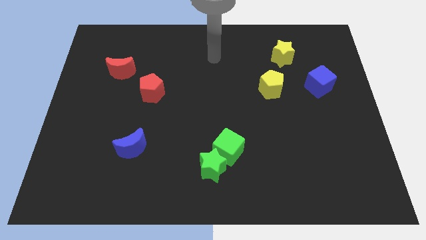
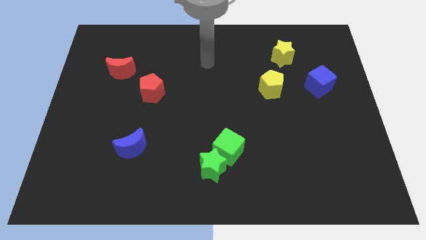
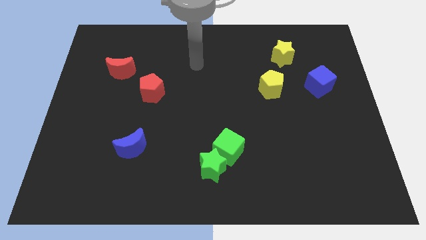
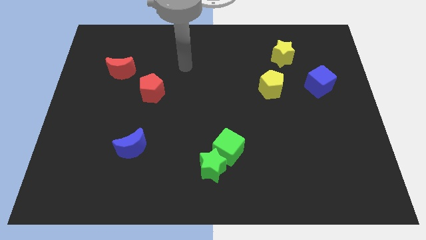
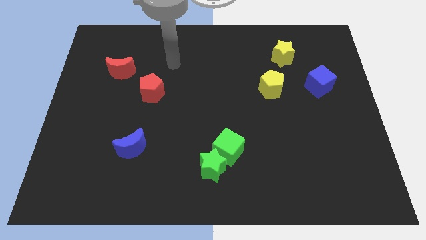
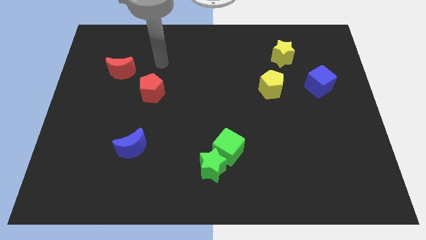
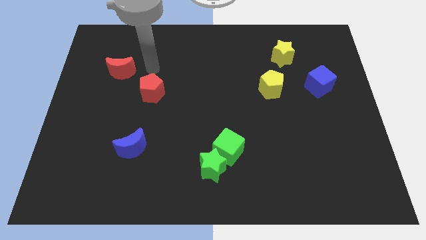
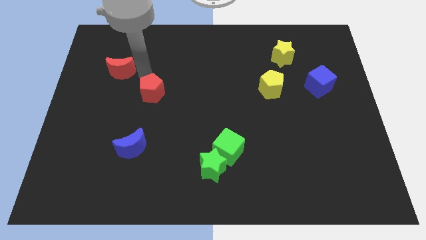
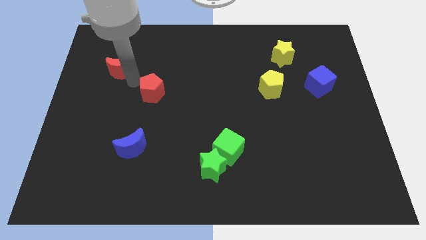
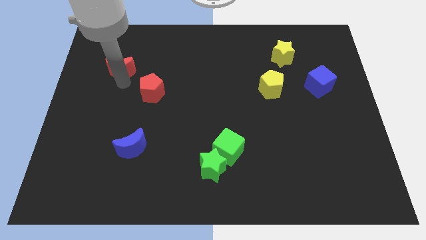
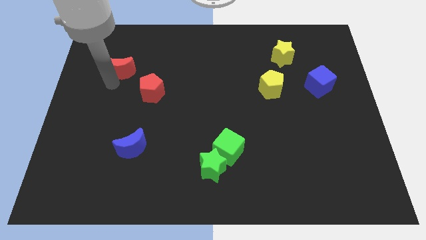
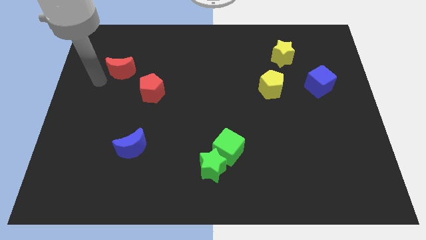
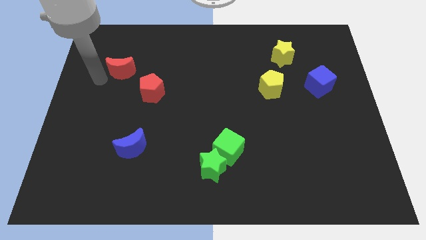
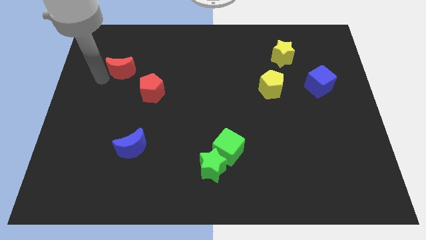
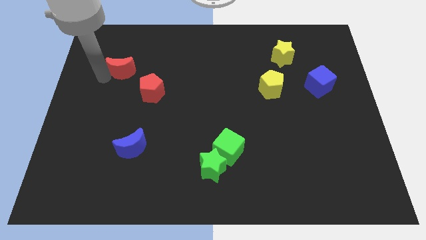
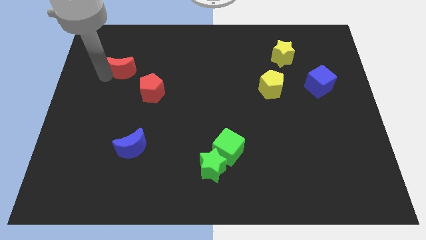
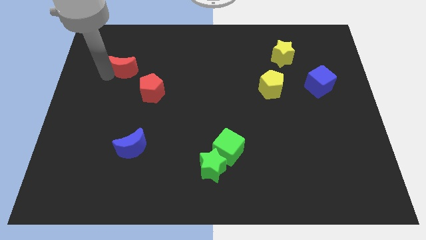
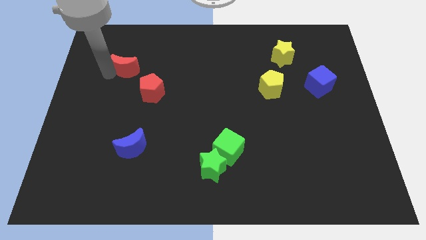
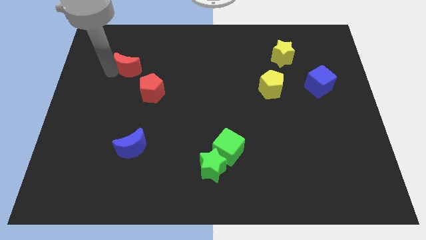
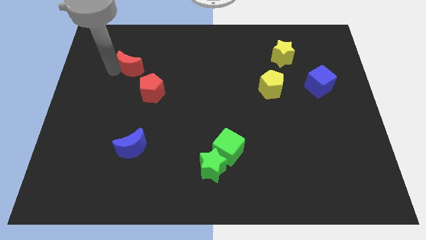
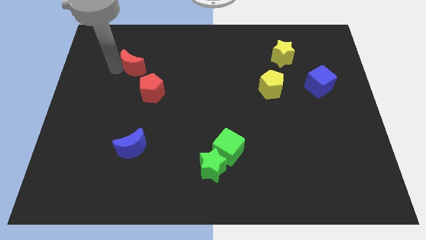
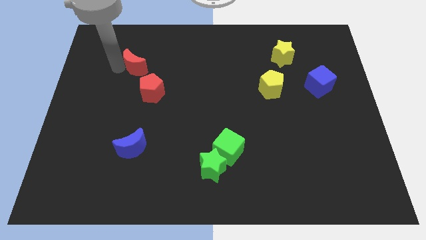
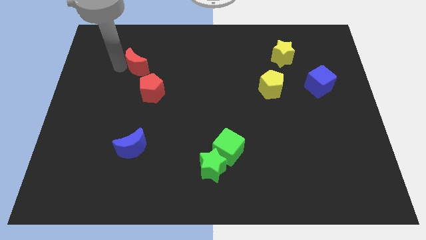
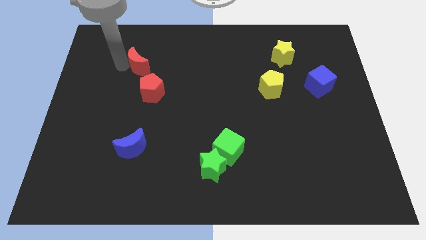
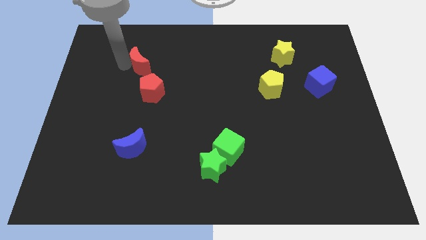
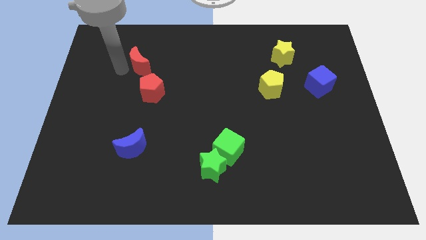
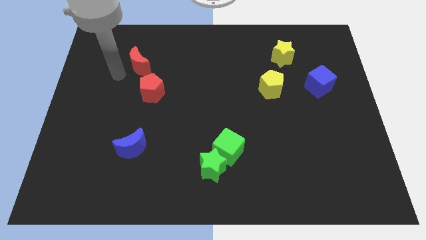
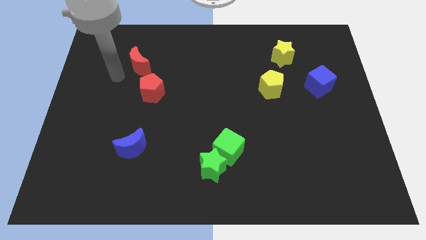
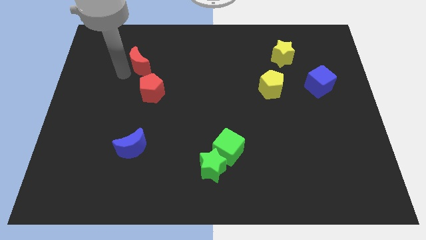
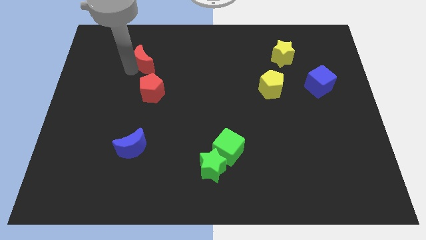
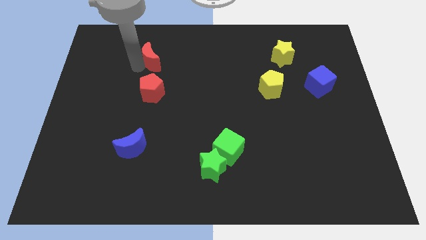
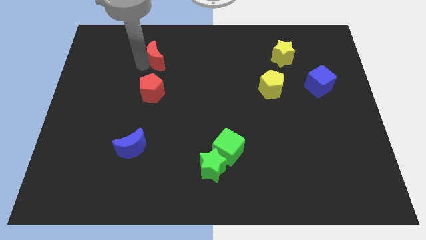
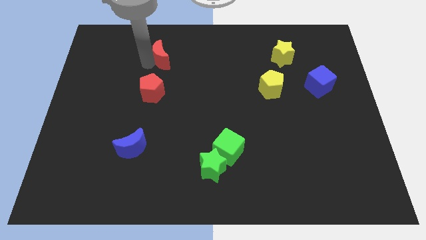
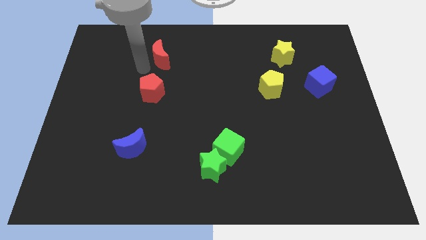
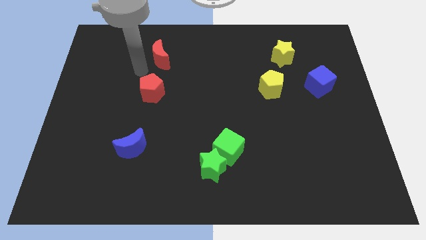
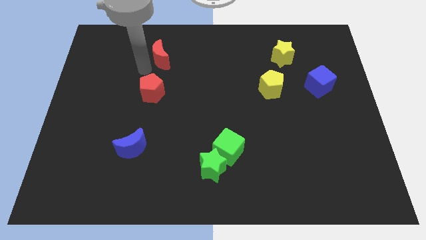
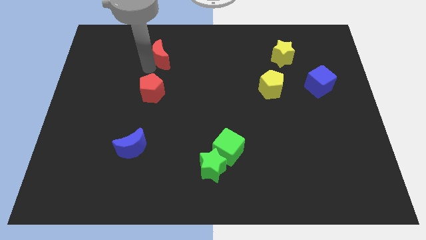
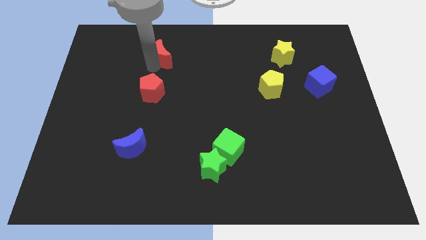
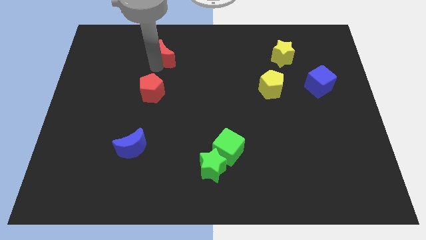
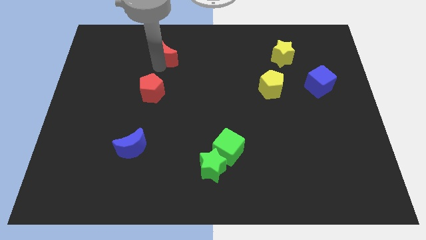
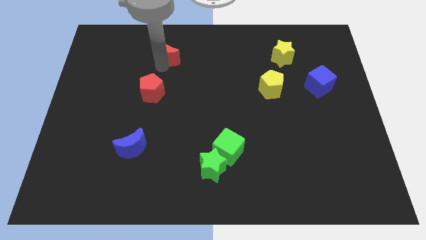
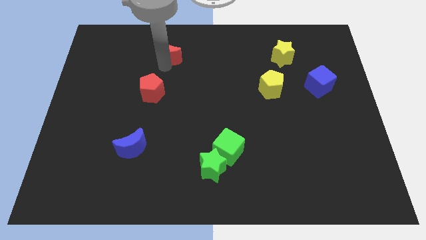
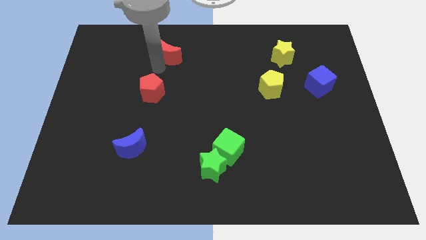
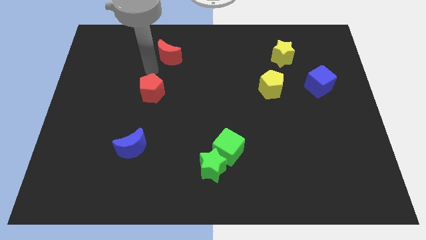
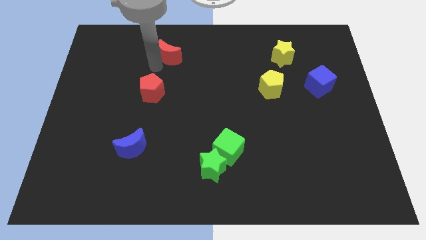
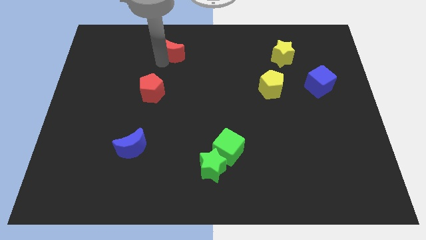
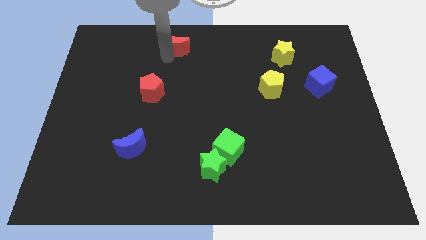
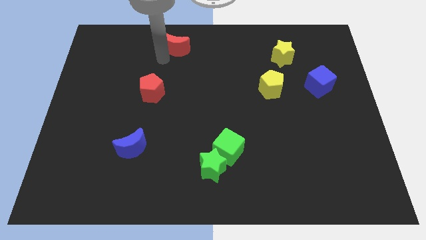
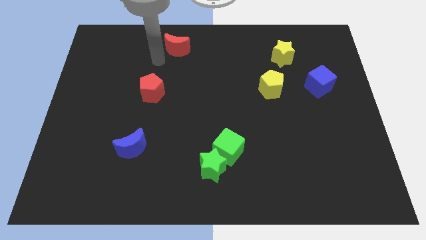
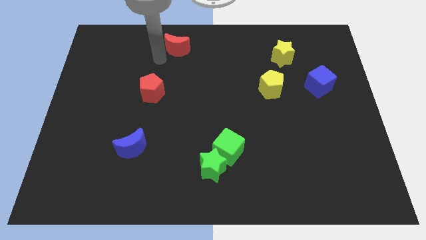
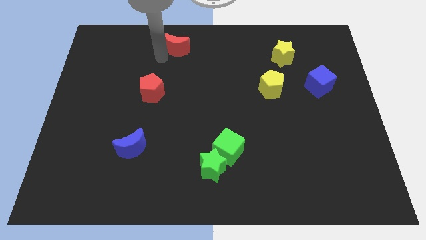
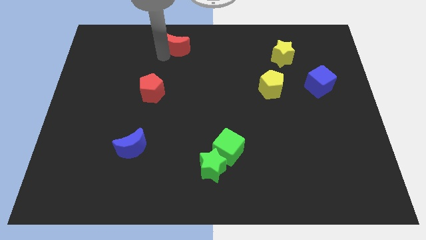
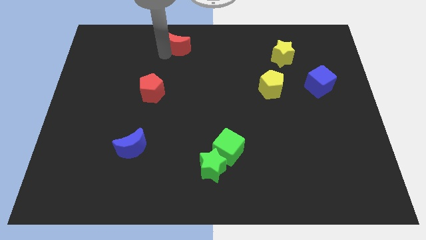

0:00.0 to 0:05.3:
slide the red moon to the top side
